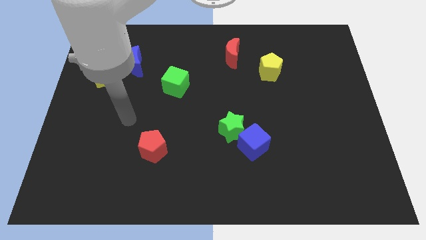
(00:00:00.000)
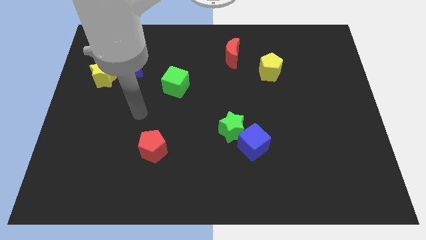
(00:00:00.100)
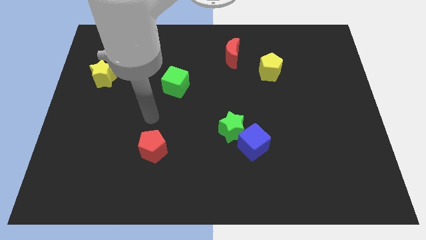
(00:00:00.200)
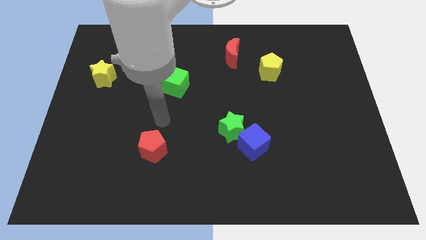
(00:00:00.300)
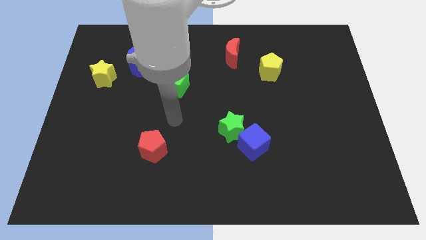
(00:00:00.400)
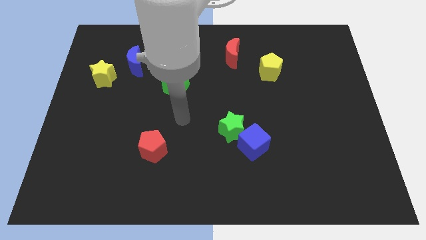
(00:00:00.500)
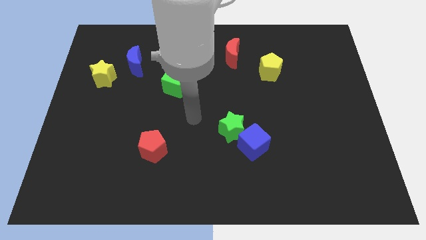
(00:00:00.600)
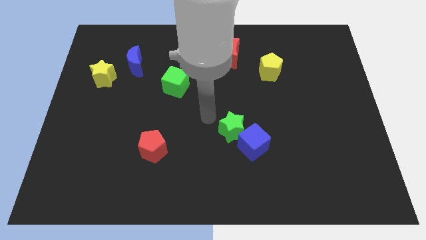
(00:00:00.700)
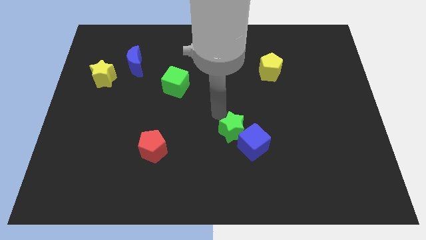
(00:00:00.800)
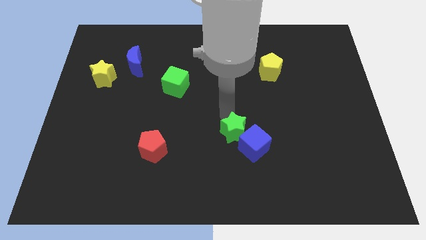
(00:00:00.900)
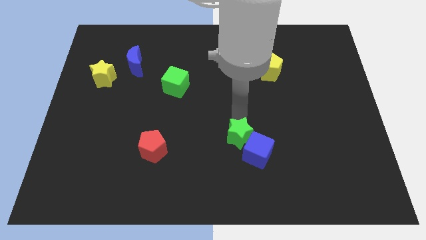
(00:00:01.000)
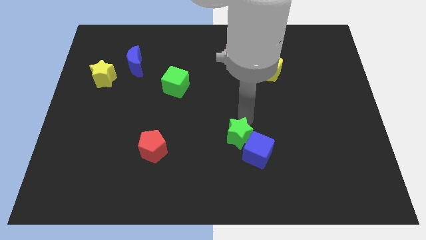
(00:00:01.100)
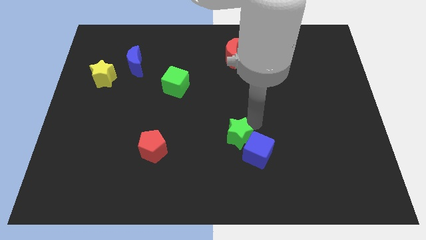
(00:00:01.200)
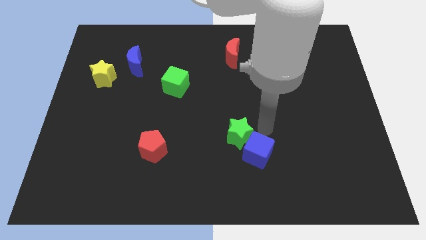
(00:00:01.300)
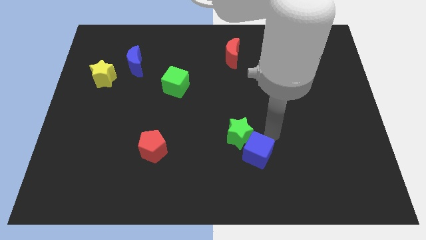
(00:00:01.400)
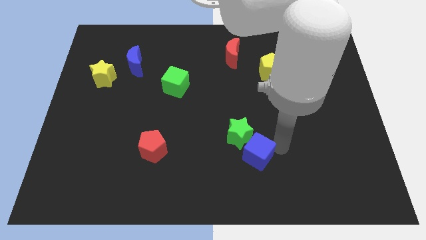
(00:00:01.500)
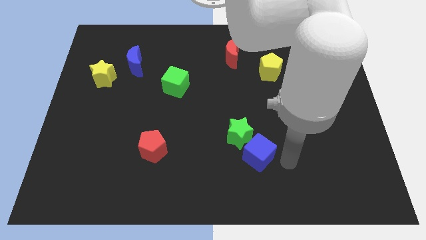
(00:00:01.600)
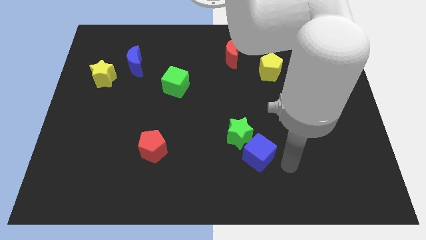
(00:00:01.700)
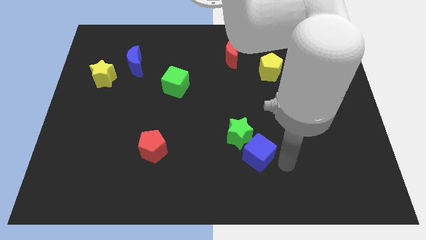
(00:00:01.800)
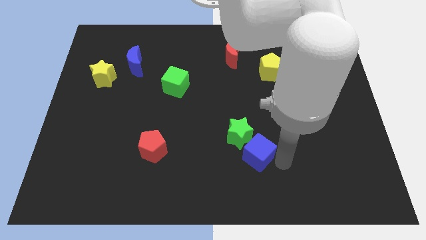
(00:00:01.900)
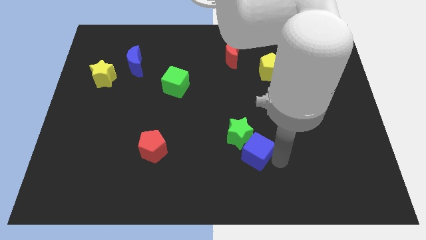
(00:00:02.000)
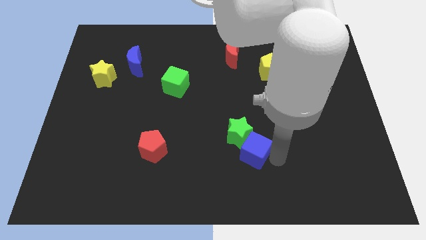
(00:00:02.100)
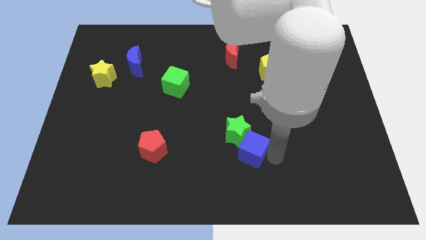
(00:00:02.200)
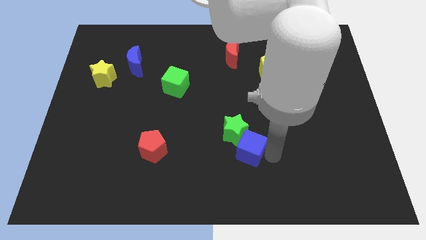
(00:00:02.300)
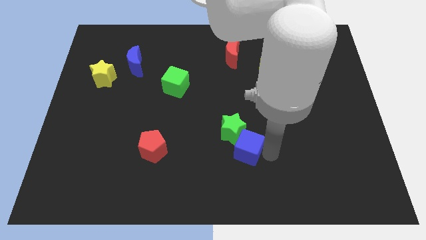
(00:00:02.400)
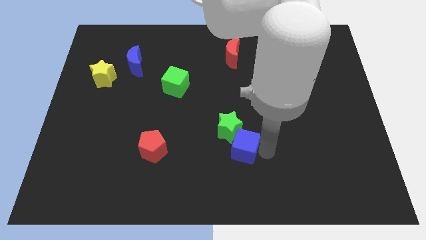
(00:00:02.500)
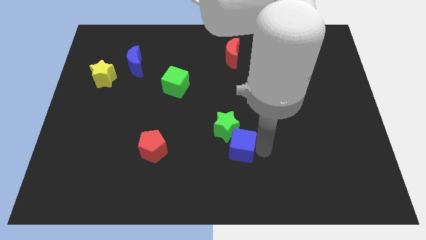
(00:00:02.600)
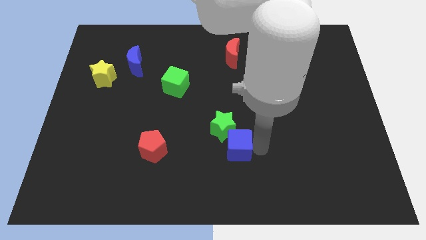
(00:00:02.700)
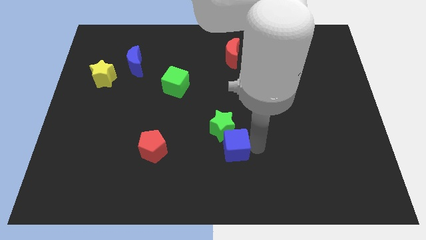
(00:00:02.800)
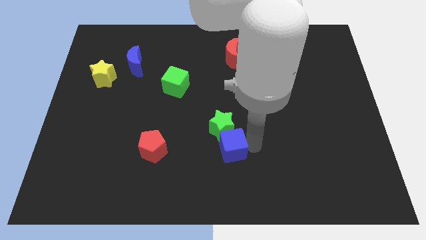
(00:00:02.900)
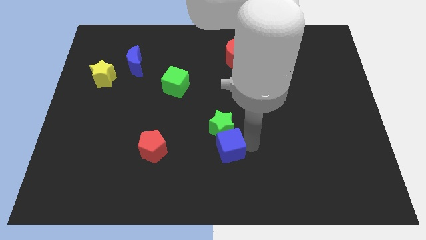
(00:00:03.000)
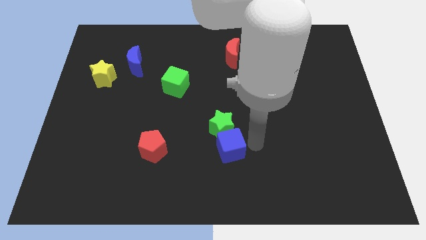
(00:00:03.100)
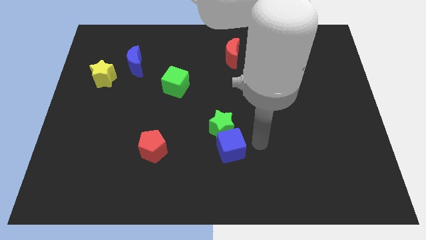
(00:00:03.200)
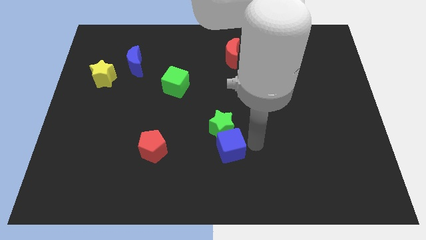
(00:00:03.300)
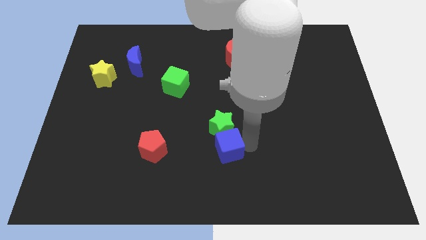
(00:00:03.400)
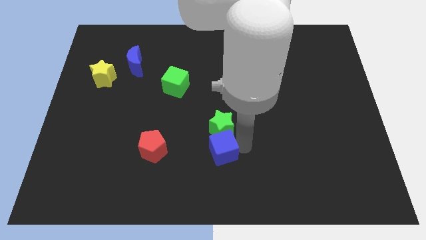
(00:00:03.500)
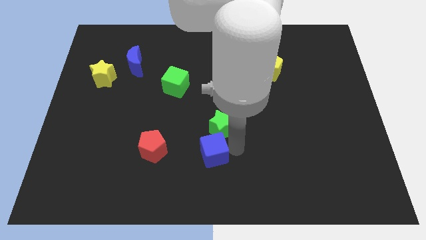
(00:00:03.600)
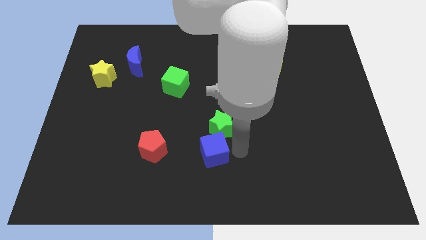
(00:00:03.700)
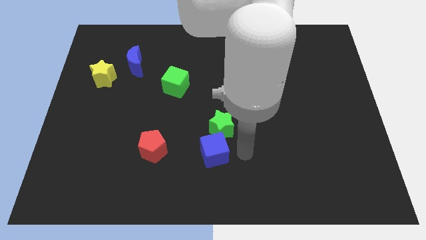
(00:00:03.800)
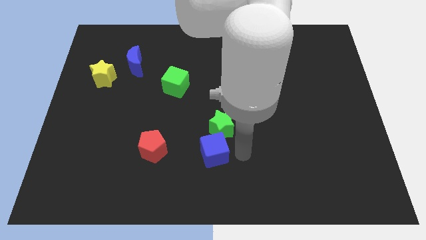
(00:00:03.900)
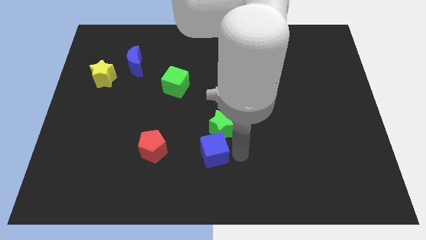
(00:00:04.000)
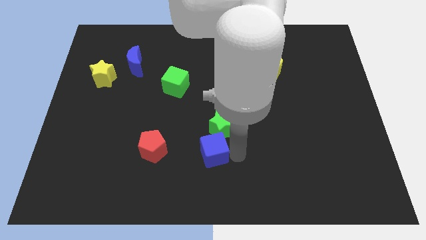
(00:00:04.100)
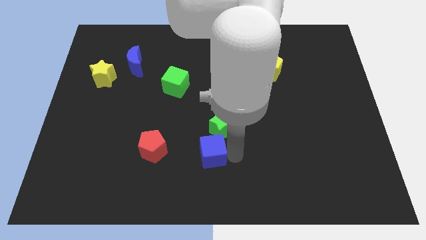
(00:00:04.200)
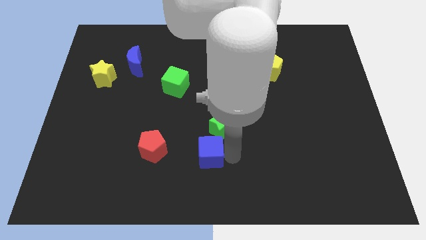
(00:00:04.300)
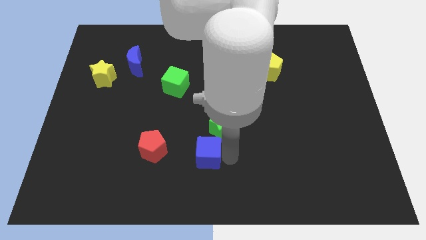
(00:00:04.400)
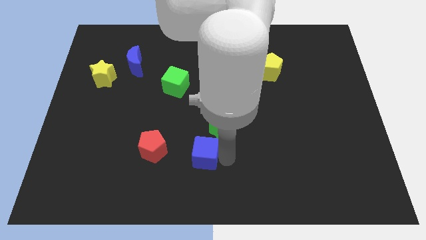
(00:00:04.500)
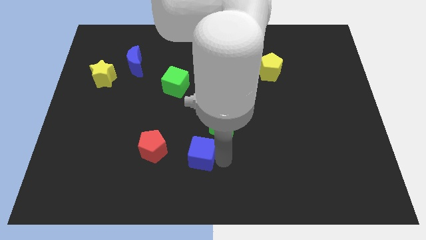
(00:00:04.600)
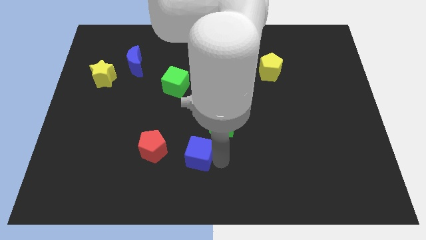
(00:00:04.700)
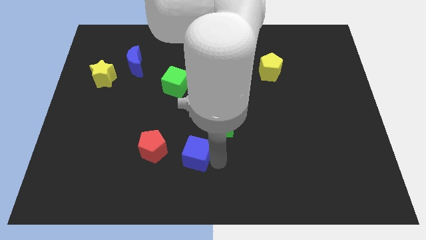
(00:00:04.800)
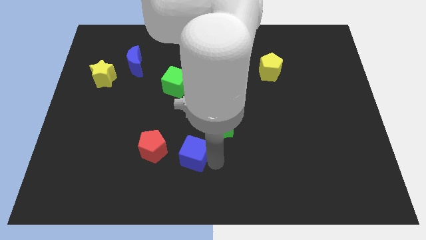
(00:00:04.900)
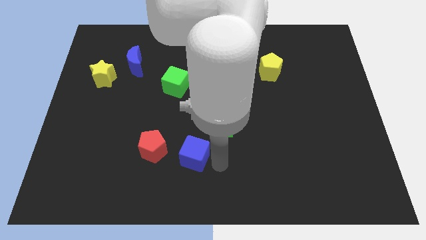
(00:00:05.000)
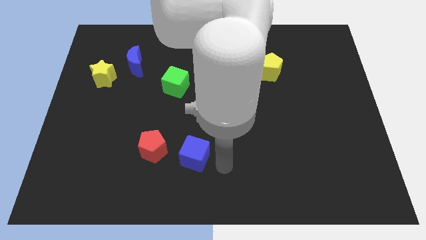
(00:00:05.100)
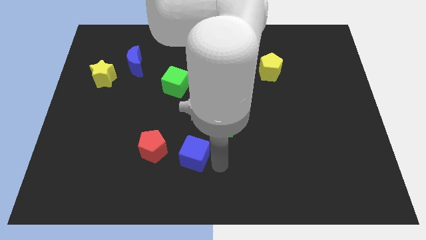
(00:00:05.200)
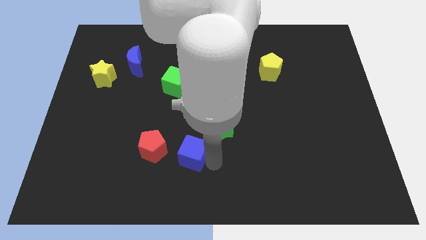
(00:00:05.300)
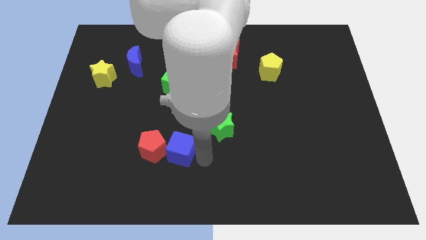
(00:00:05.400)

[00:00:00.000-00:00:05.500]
push the blue cube to the red pentagon

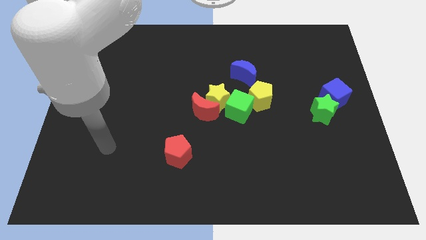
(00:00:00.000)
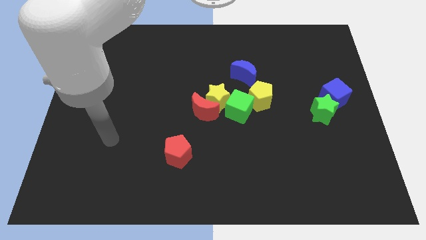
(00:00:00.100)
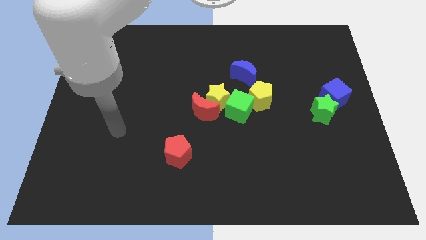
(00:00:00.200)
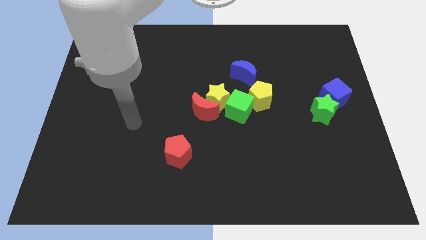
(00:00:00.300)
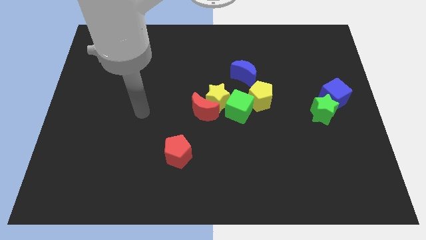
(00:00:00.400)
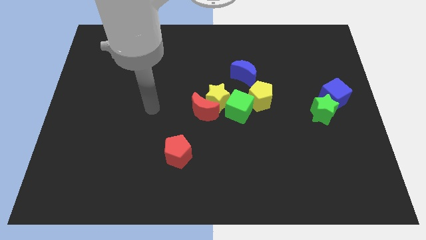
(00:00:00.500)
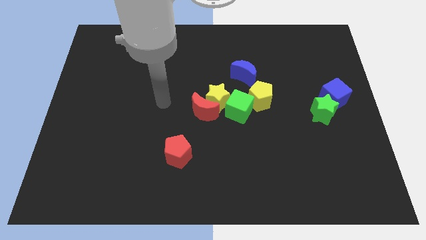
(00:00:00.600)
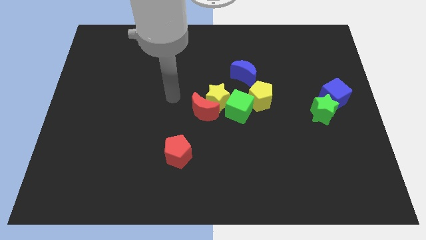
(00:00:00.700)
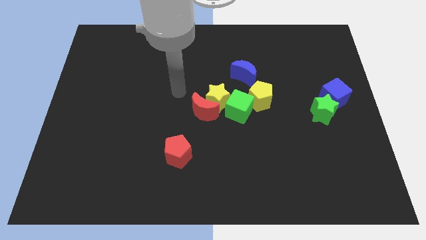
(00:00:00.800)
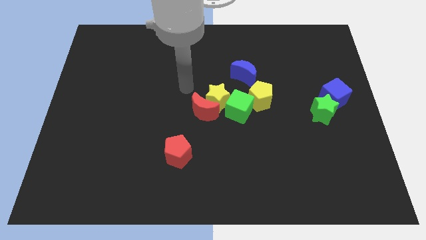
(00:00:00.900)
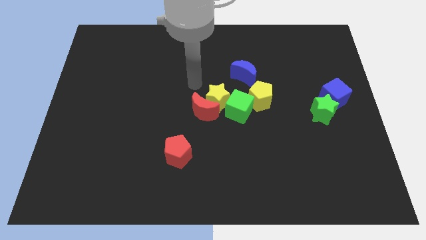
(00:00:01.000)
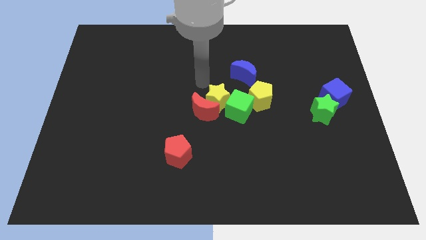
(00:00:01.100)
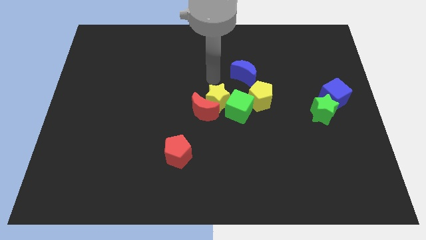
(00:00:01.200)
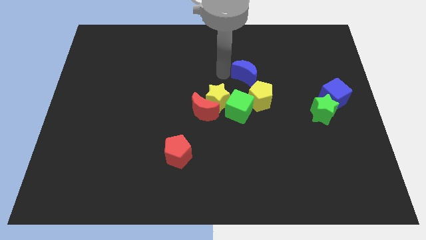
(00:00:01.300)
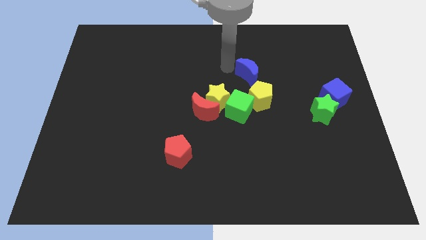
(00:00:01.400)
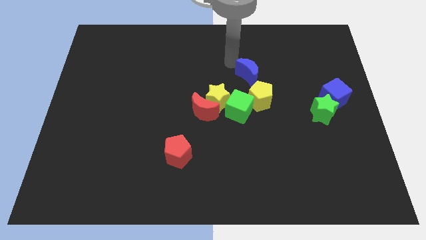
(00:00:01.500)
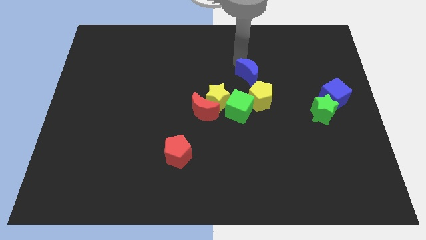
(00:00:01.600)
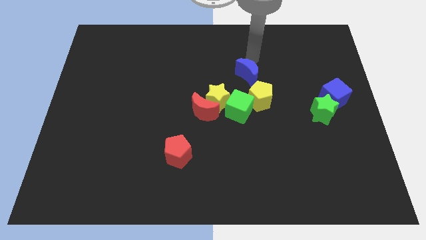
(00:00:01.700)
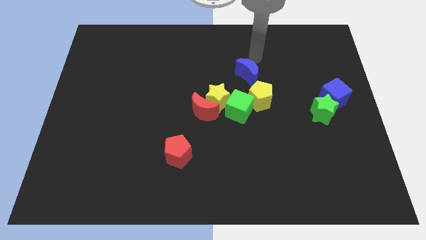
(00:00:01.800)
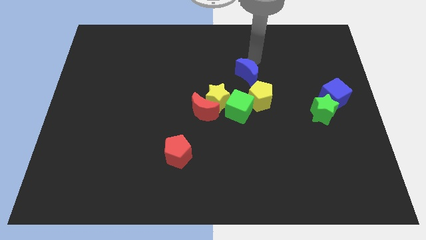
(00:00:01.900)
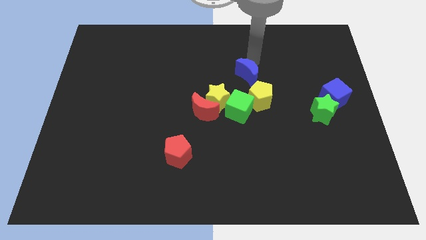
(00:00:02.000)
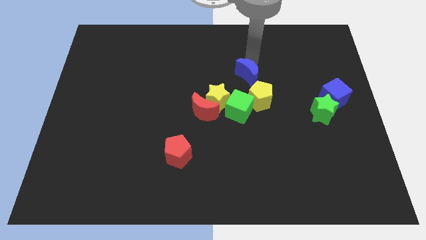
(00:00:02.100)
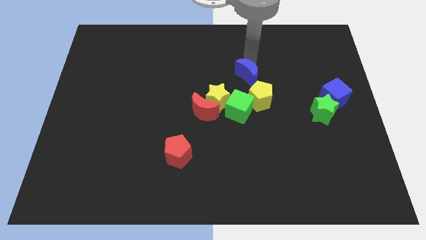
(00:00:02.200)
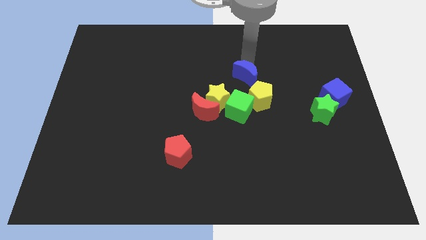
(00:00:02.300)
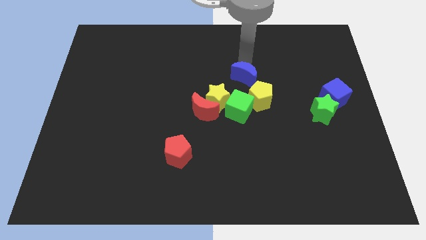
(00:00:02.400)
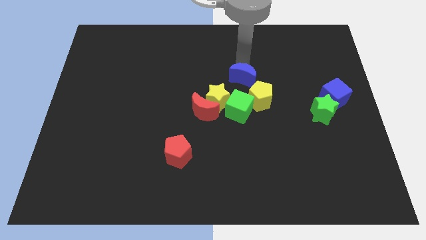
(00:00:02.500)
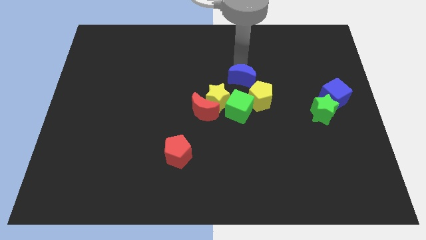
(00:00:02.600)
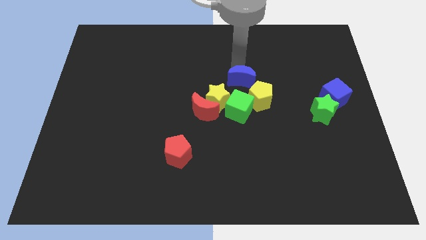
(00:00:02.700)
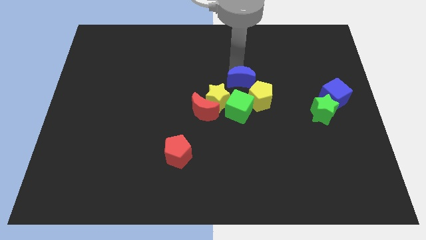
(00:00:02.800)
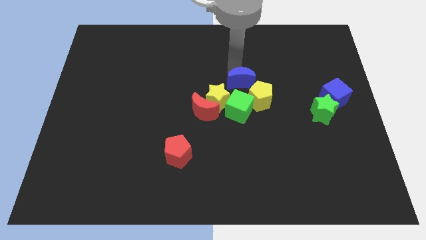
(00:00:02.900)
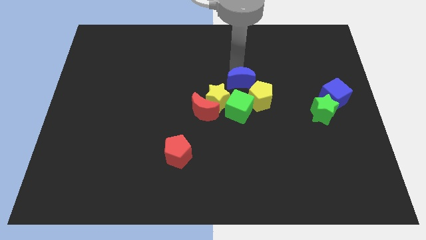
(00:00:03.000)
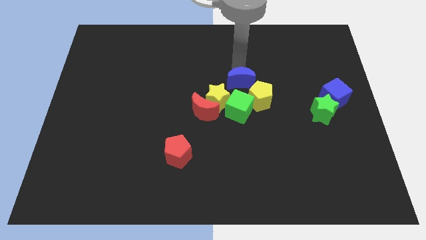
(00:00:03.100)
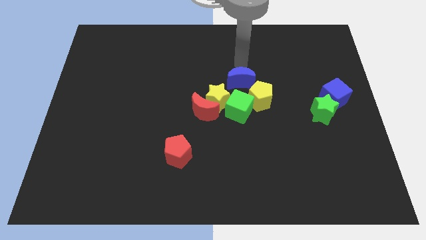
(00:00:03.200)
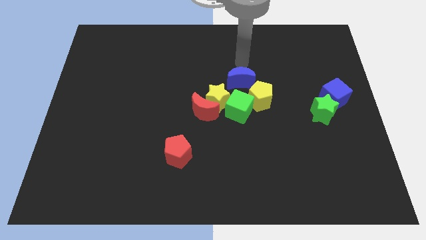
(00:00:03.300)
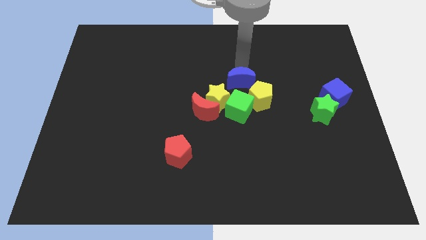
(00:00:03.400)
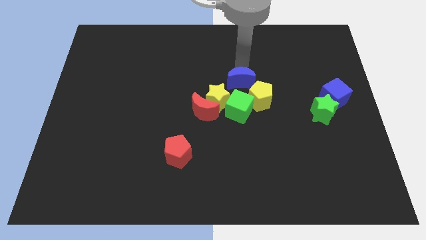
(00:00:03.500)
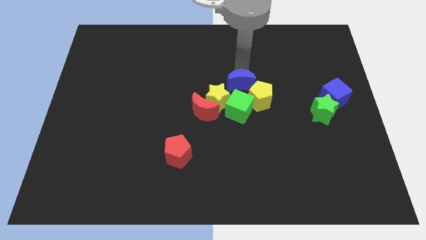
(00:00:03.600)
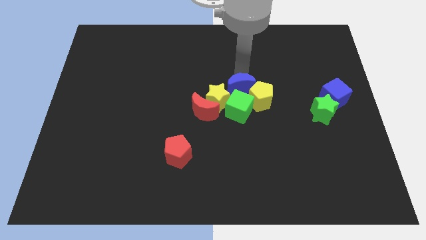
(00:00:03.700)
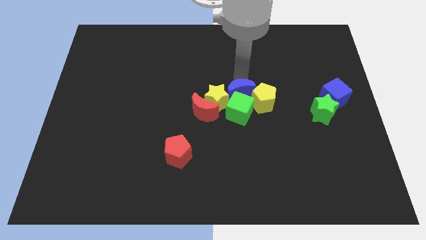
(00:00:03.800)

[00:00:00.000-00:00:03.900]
push the blue moon towards the green cube
